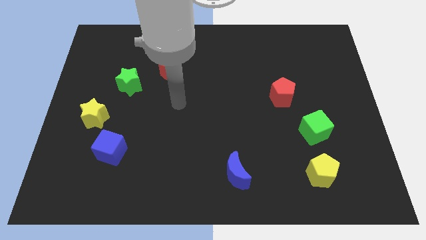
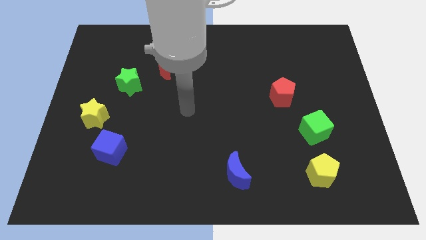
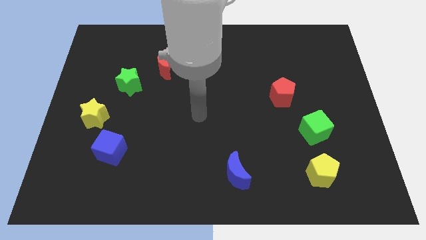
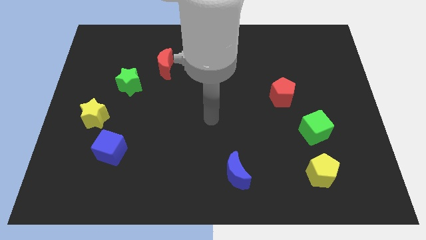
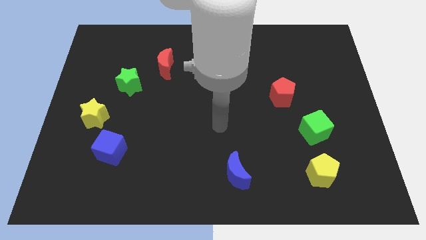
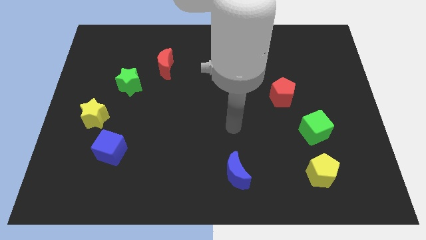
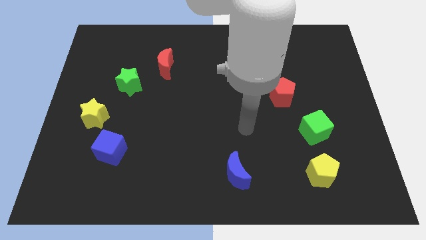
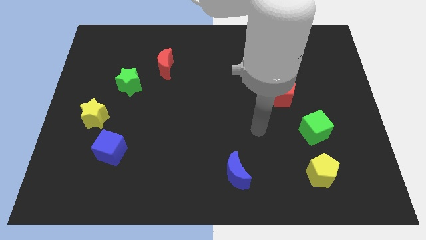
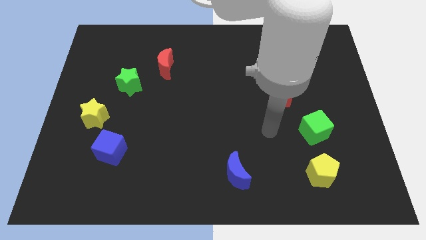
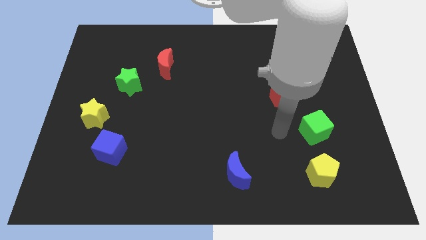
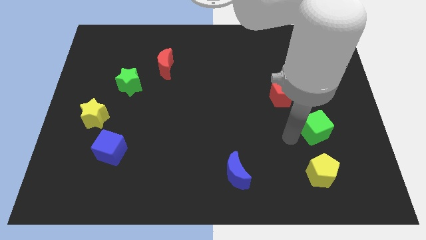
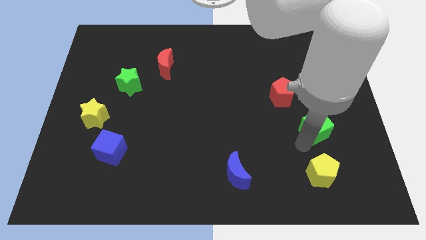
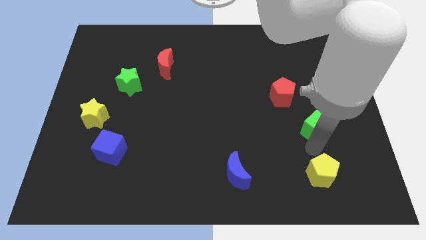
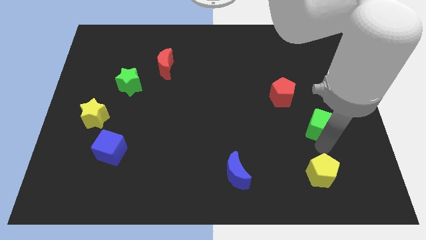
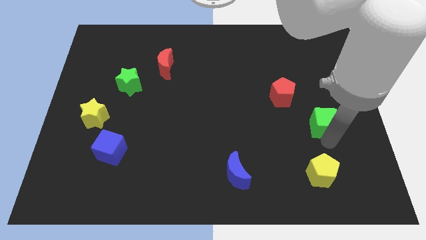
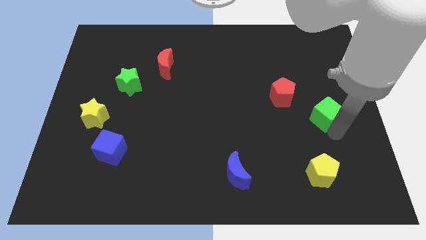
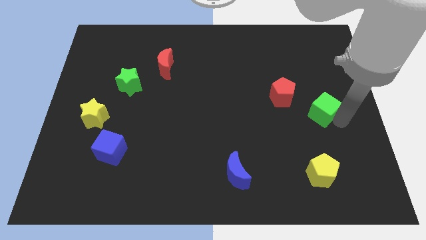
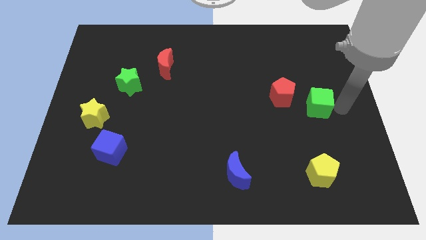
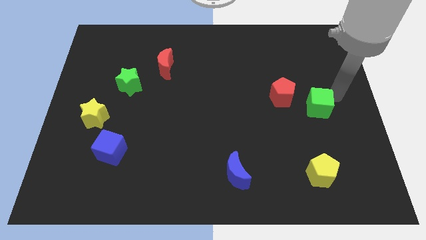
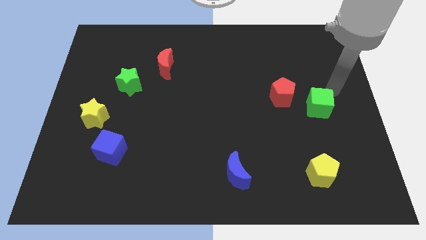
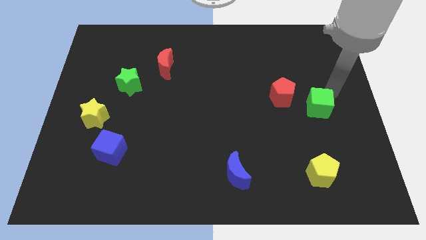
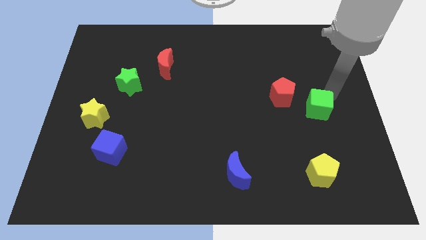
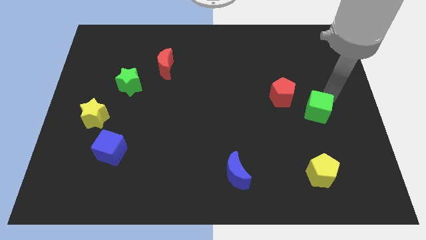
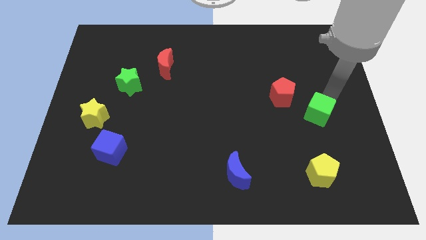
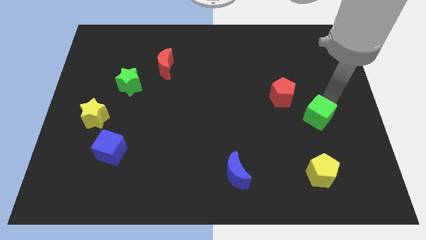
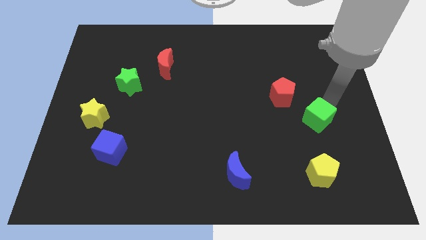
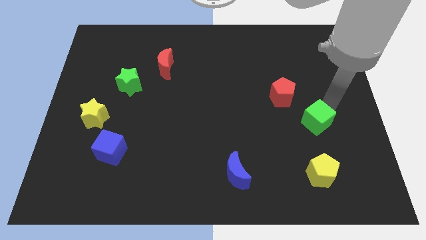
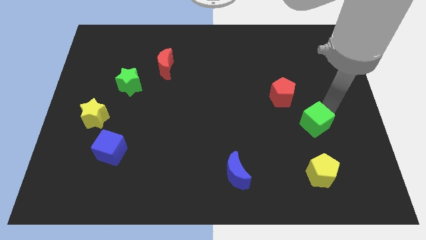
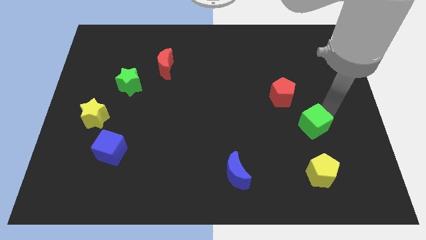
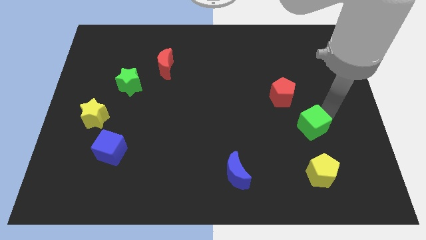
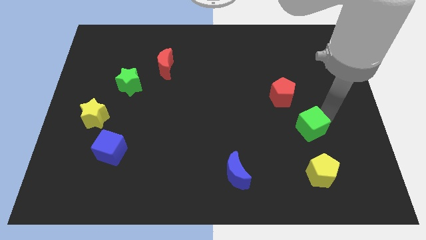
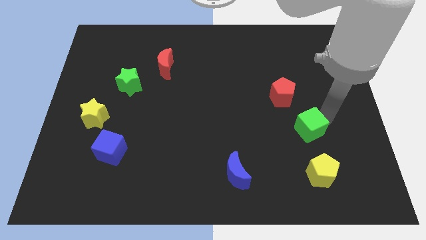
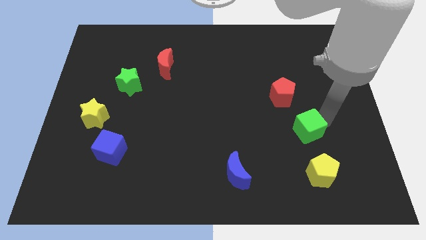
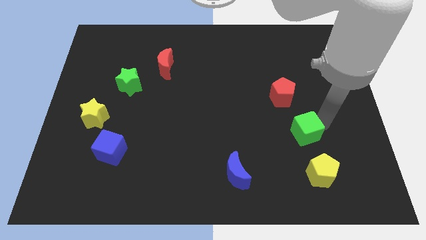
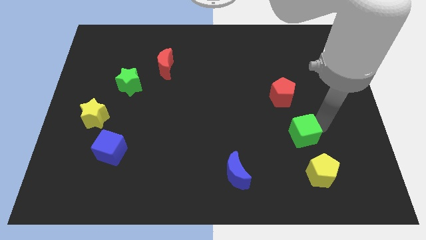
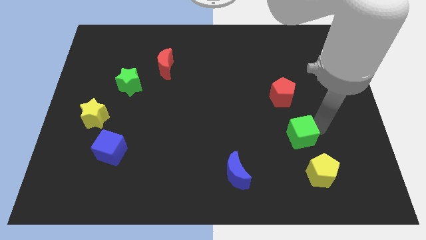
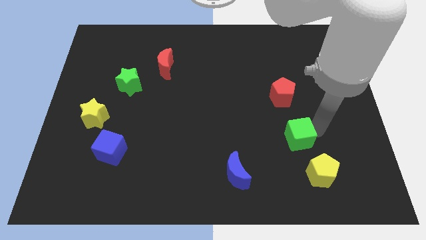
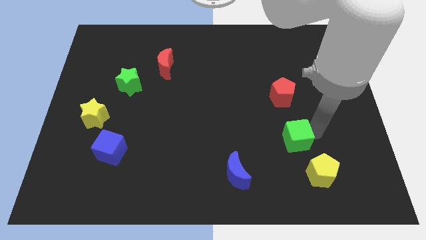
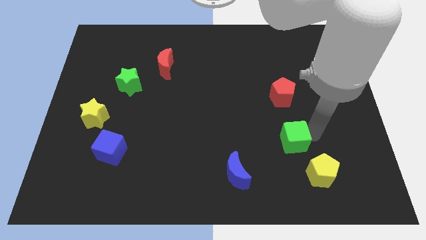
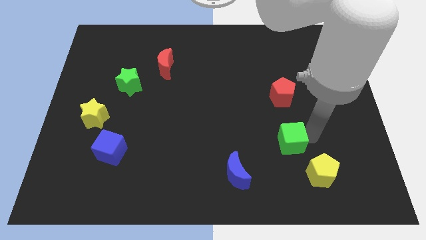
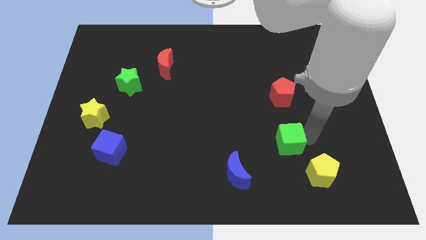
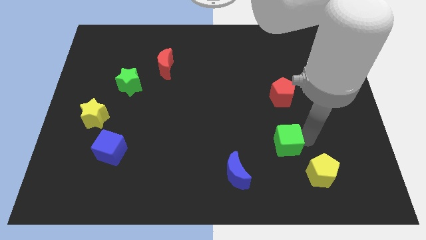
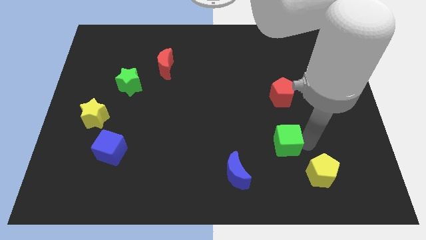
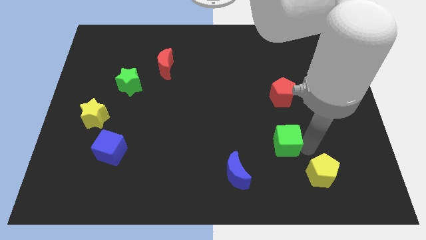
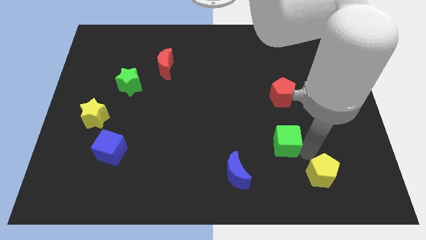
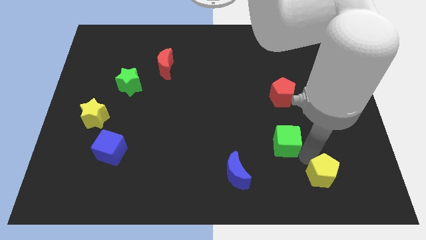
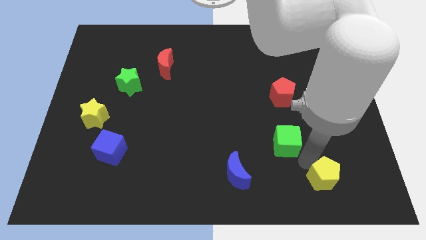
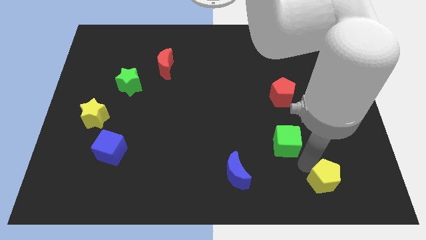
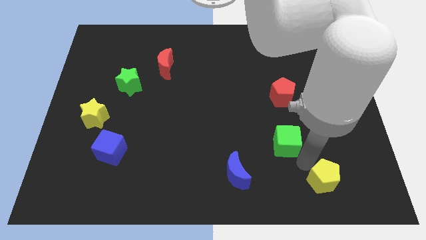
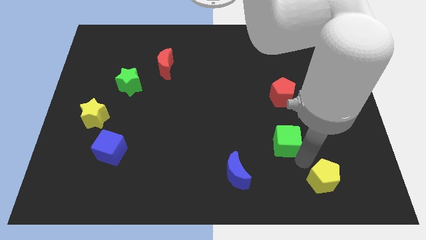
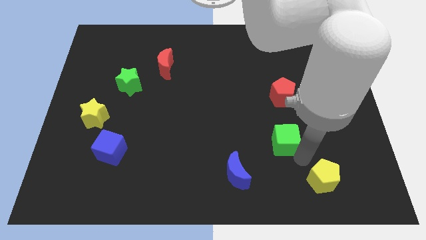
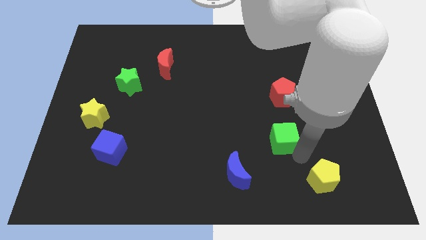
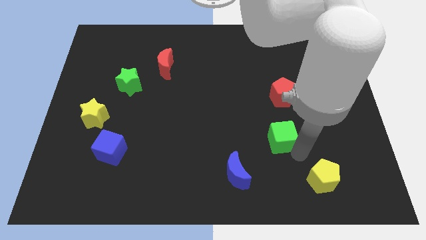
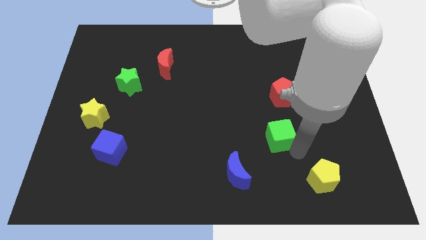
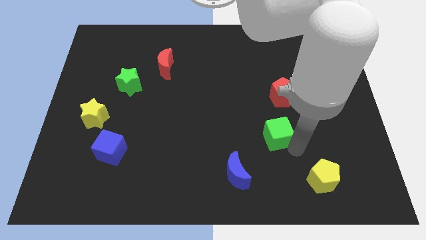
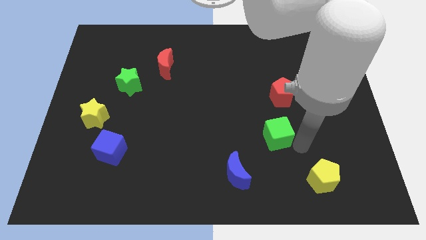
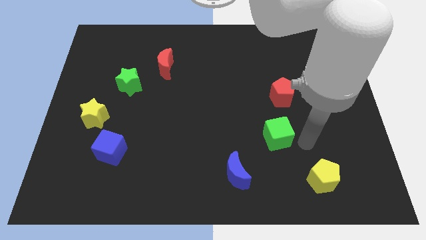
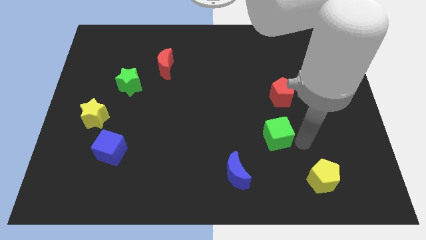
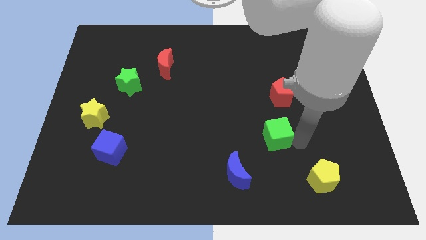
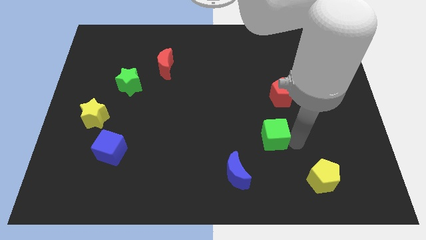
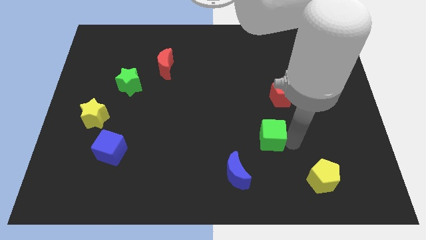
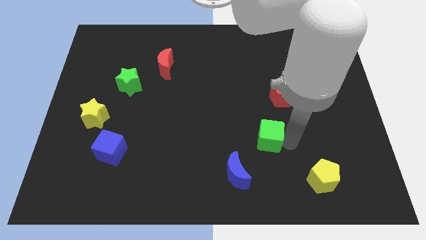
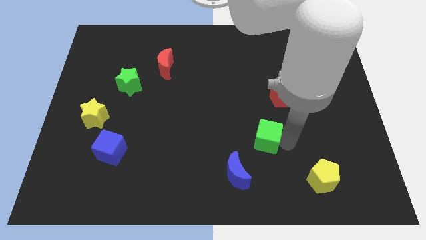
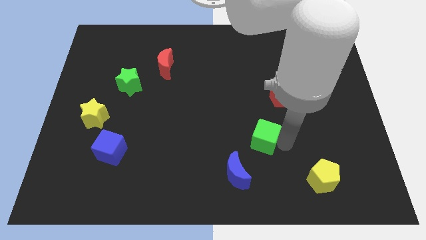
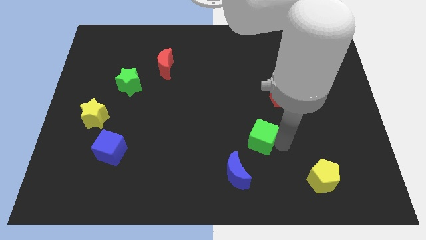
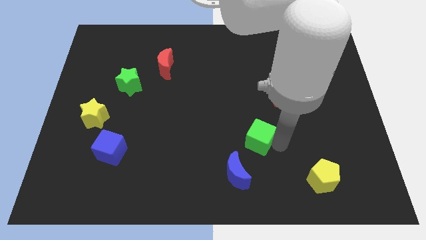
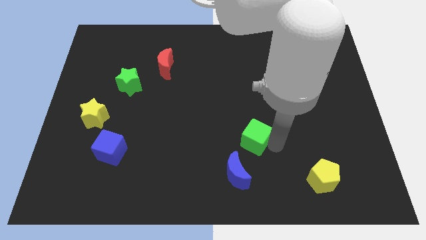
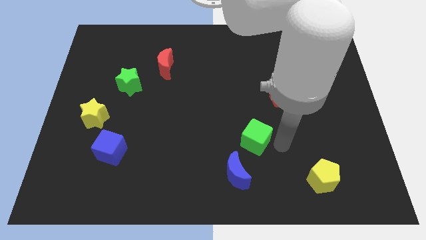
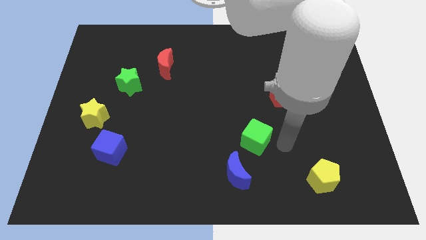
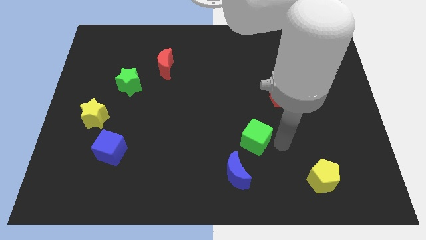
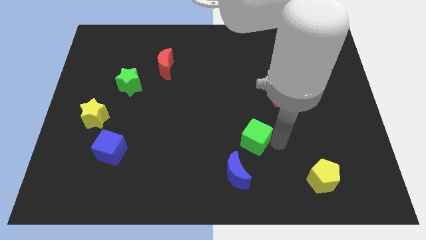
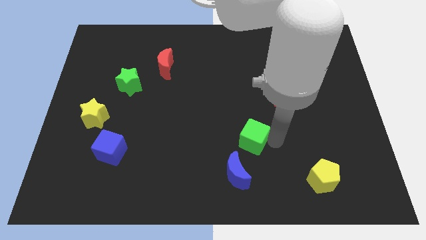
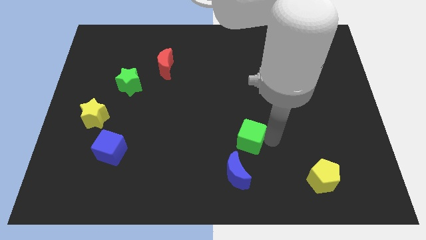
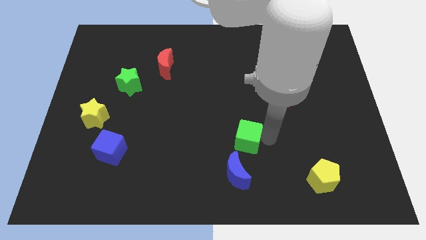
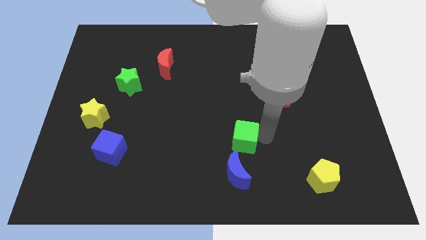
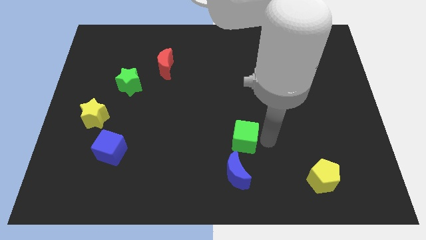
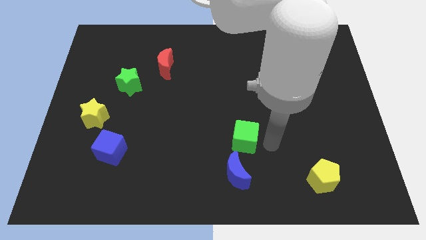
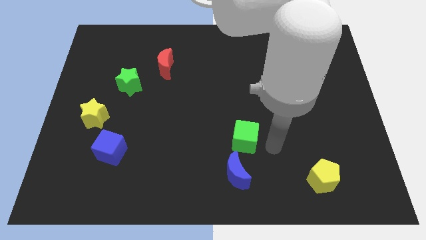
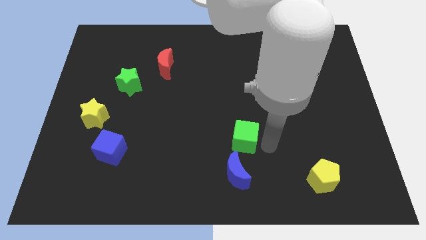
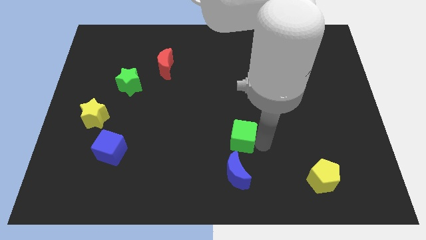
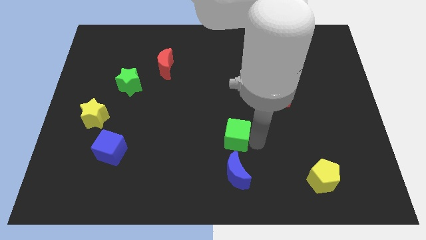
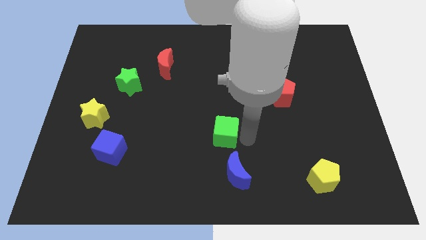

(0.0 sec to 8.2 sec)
move the green cube to the left
